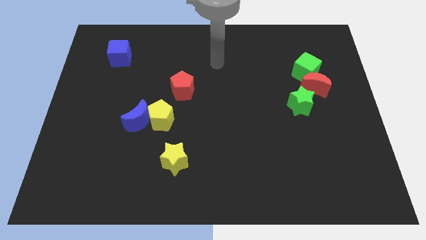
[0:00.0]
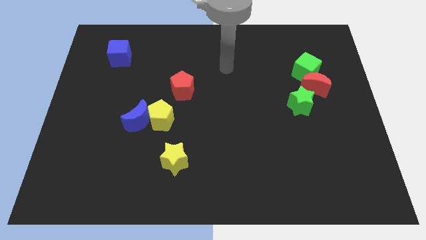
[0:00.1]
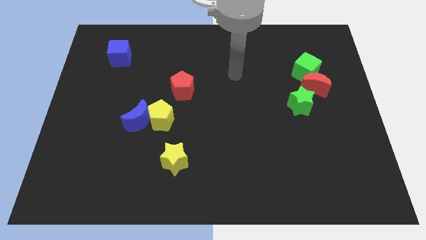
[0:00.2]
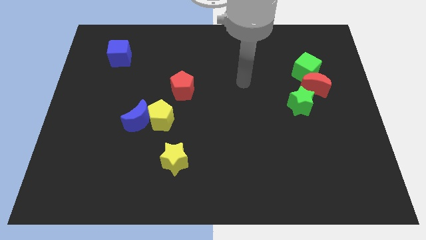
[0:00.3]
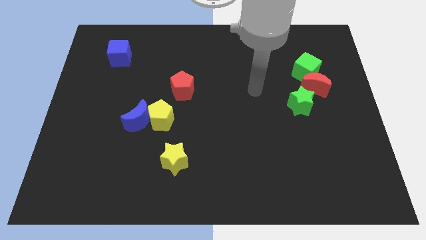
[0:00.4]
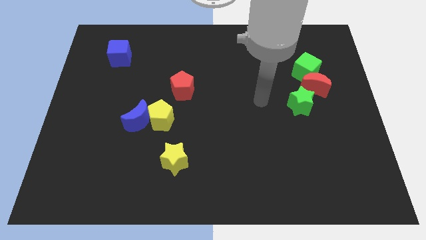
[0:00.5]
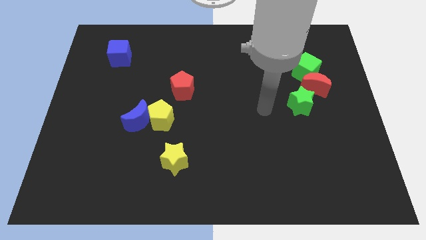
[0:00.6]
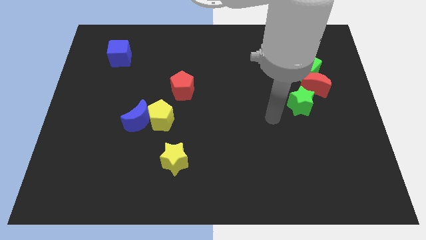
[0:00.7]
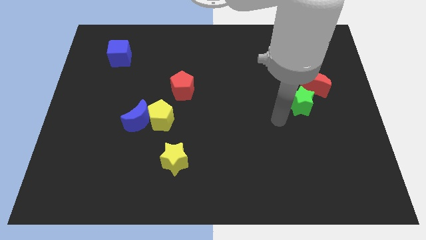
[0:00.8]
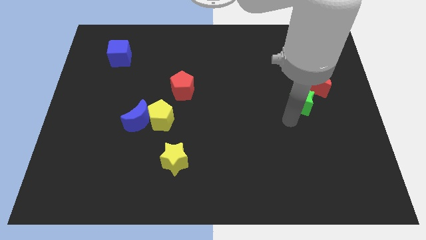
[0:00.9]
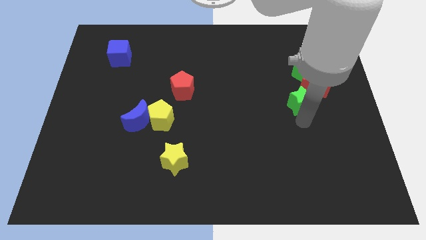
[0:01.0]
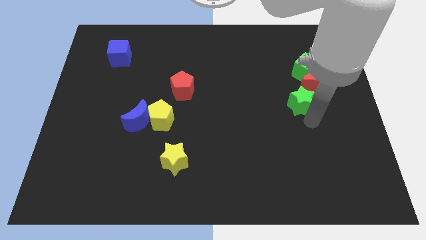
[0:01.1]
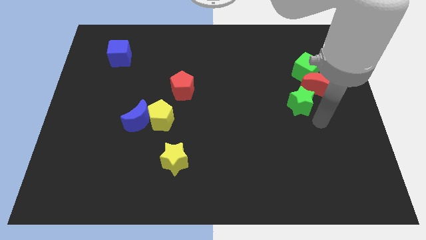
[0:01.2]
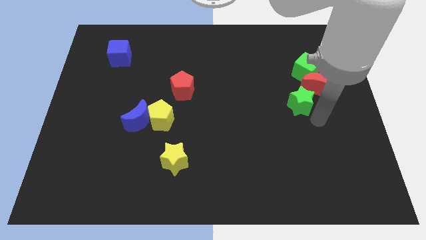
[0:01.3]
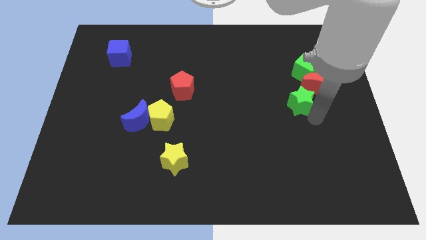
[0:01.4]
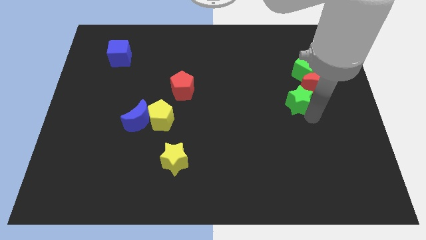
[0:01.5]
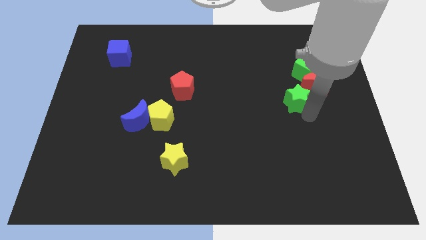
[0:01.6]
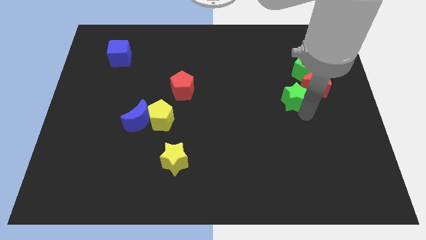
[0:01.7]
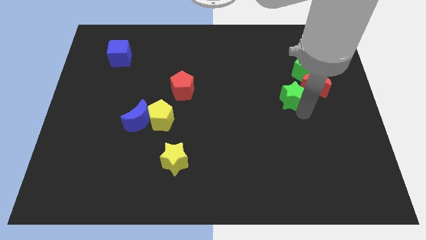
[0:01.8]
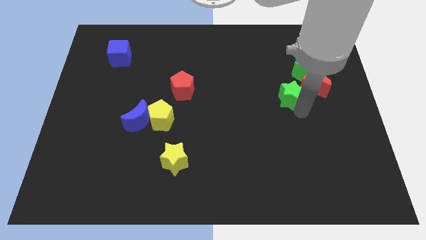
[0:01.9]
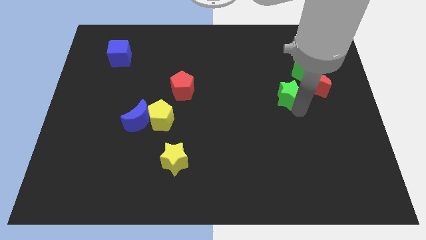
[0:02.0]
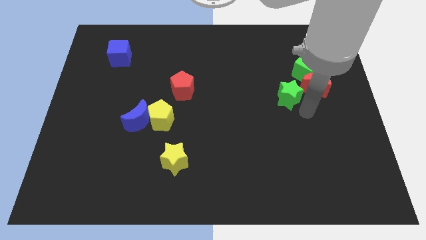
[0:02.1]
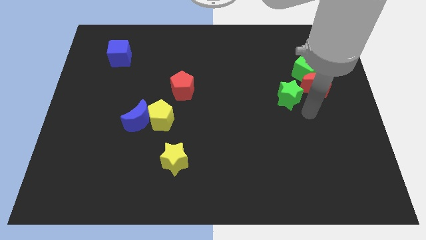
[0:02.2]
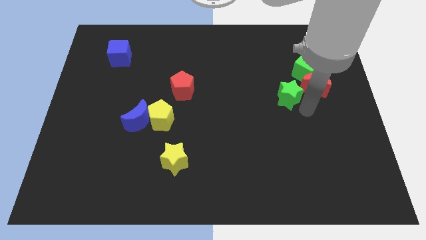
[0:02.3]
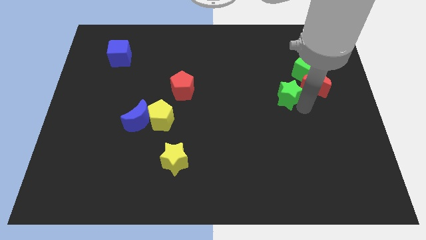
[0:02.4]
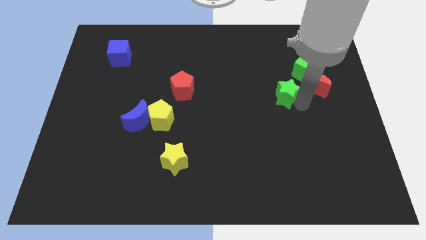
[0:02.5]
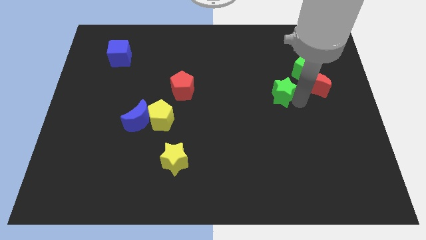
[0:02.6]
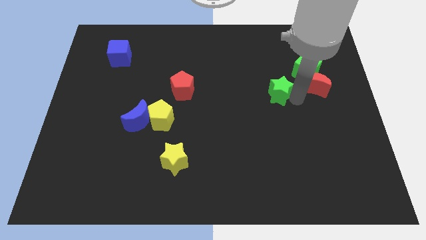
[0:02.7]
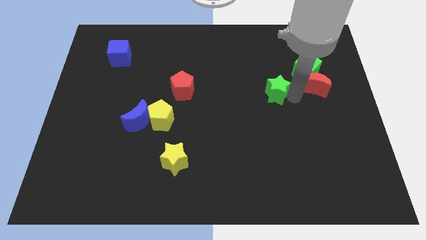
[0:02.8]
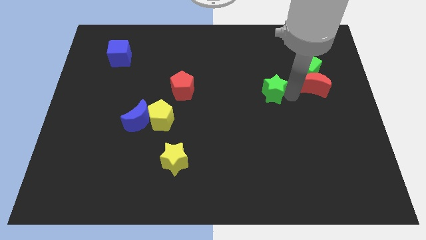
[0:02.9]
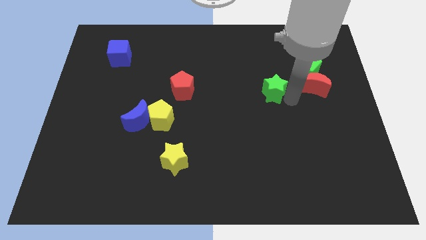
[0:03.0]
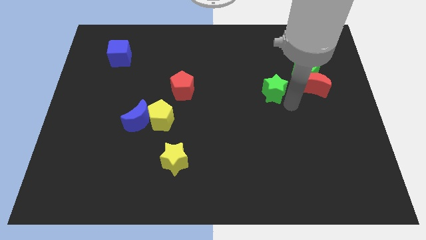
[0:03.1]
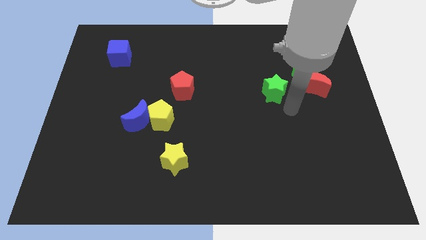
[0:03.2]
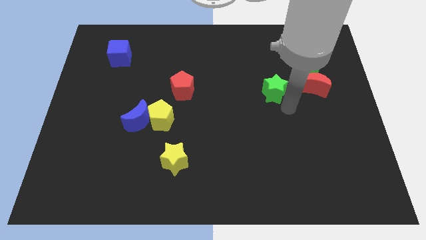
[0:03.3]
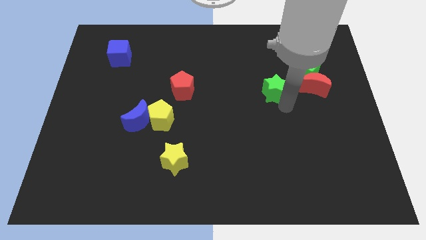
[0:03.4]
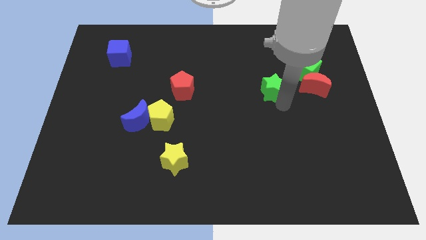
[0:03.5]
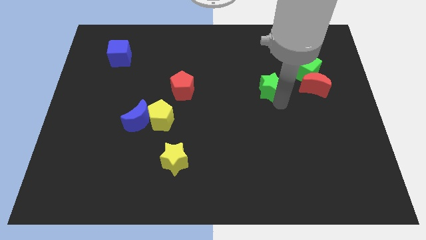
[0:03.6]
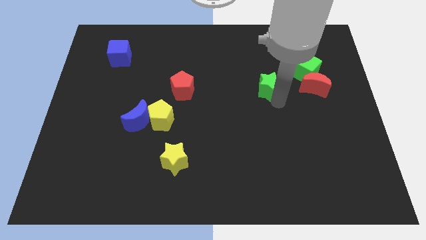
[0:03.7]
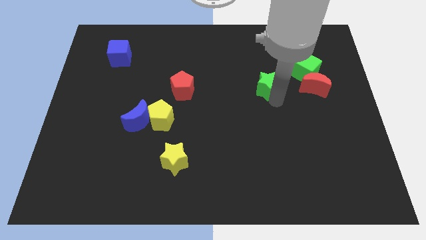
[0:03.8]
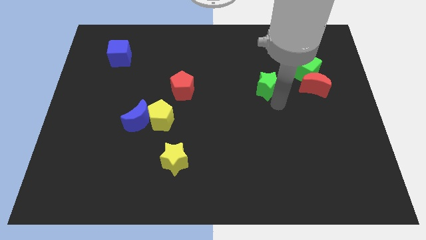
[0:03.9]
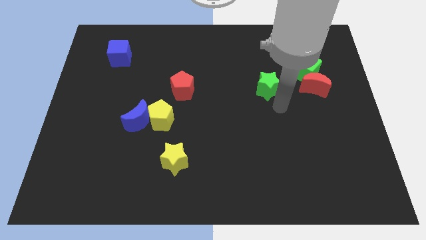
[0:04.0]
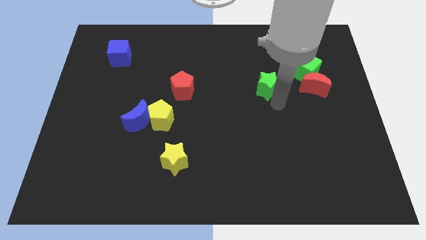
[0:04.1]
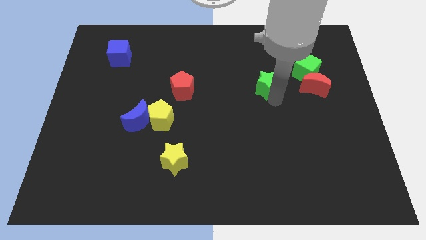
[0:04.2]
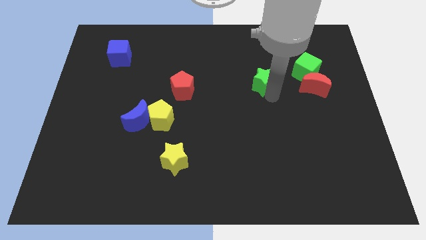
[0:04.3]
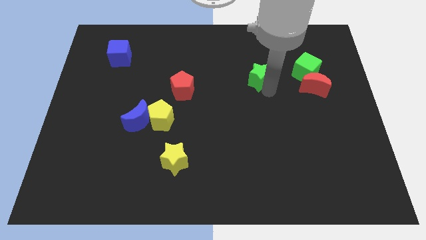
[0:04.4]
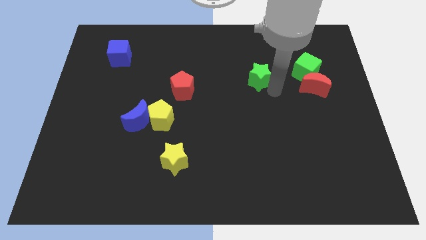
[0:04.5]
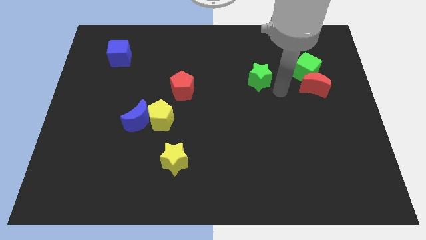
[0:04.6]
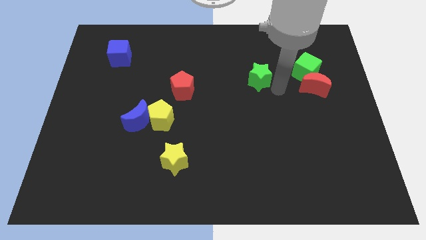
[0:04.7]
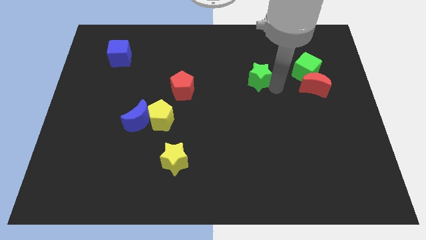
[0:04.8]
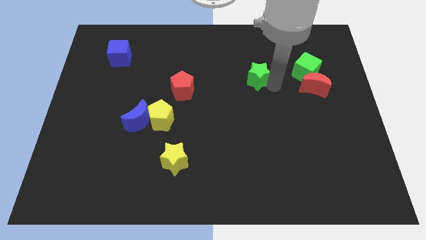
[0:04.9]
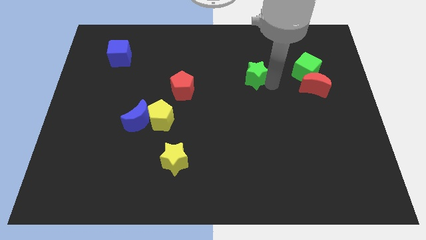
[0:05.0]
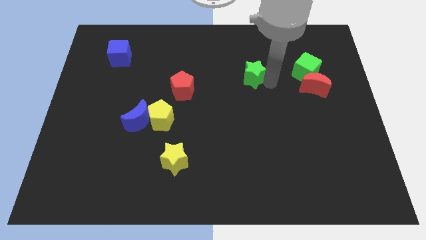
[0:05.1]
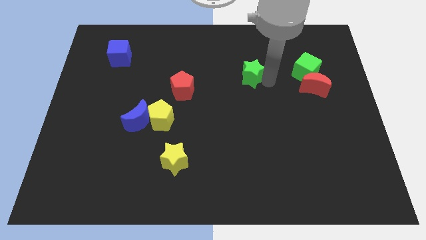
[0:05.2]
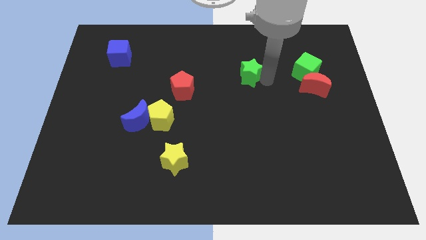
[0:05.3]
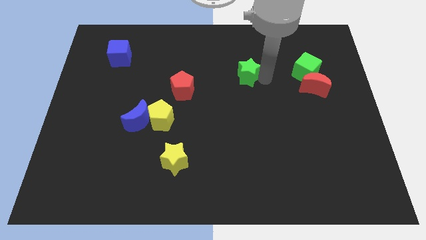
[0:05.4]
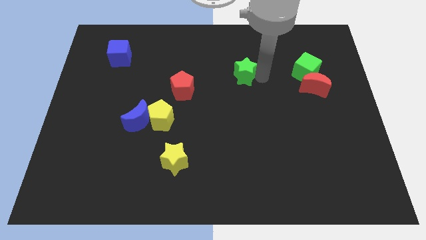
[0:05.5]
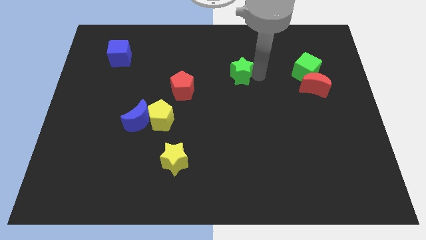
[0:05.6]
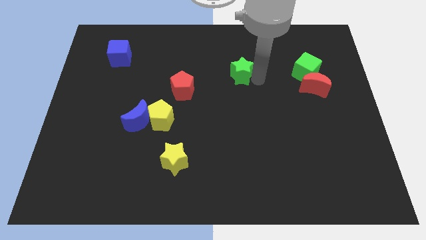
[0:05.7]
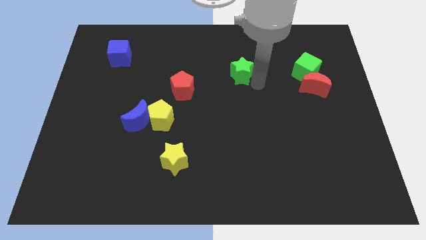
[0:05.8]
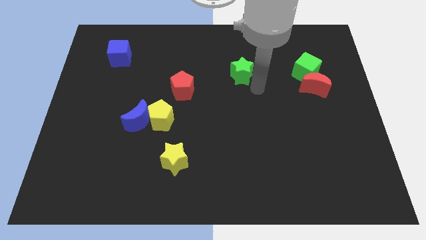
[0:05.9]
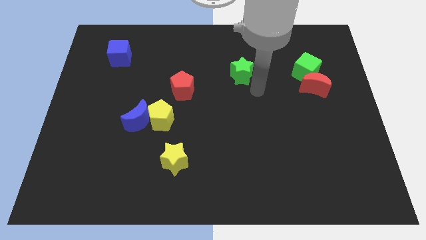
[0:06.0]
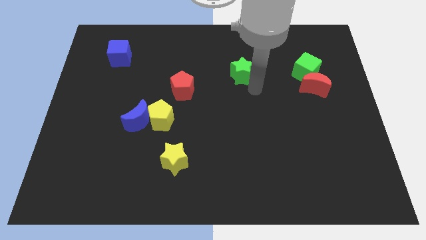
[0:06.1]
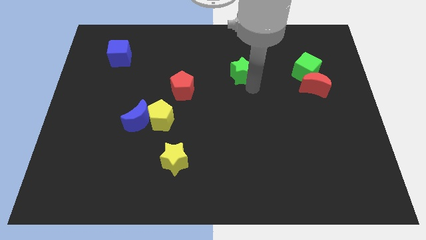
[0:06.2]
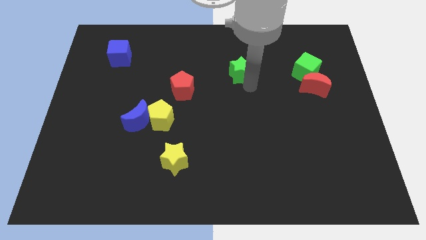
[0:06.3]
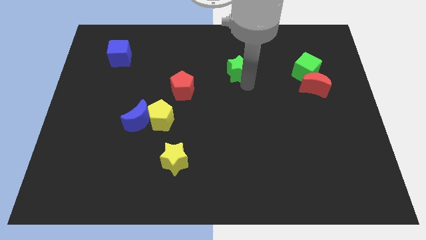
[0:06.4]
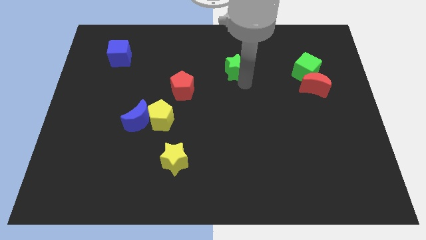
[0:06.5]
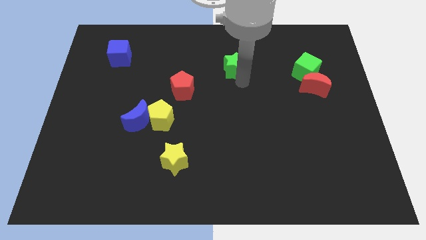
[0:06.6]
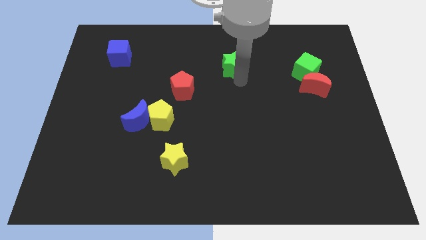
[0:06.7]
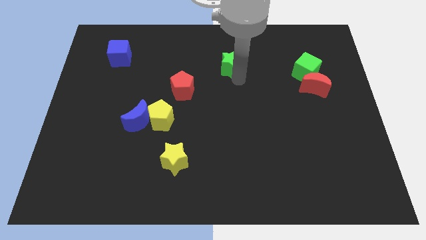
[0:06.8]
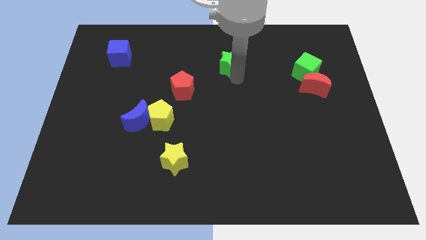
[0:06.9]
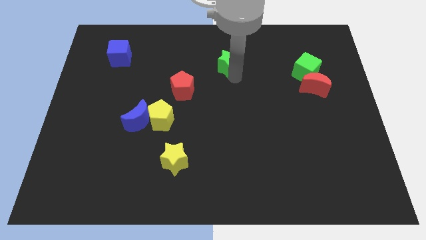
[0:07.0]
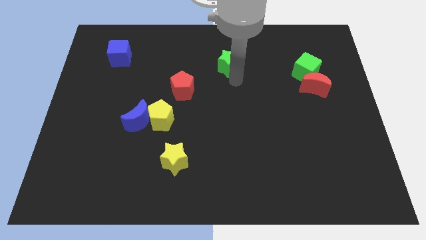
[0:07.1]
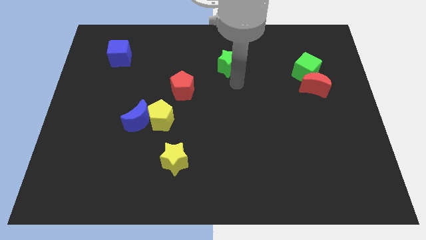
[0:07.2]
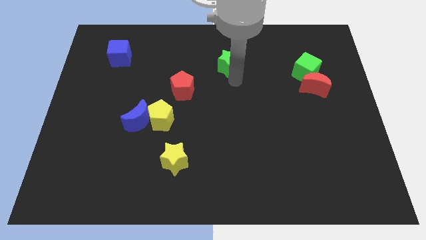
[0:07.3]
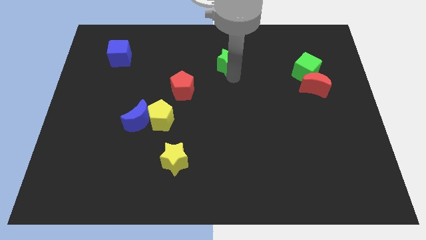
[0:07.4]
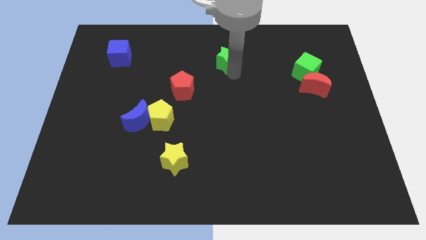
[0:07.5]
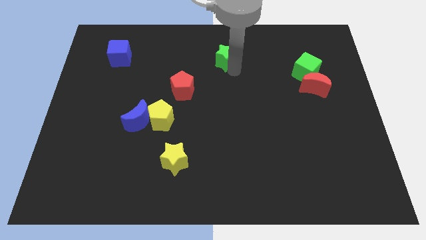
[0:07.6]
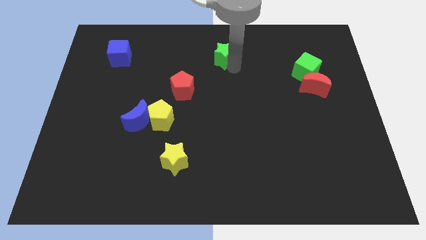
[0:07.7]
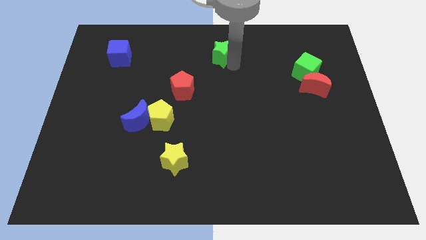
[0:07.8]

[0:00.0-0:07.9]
push the green star to the top
